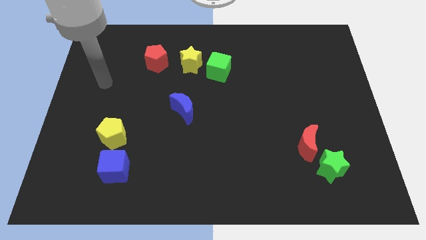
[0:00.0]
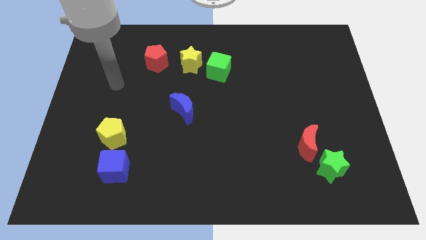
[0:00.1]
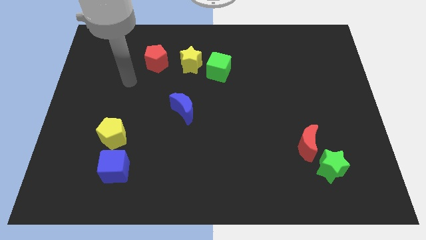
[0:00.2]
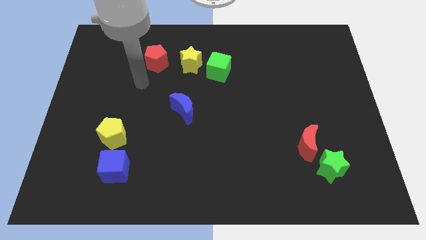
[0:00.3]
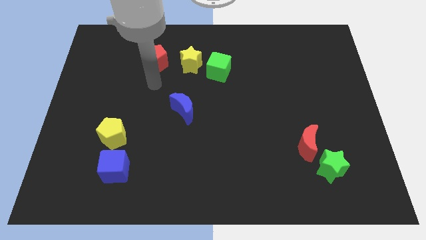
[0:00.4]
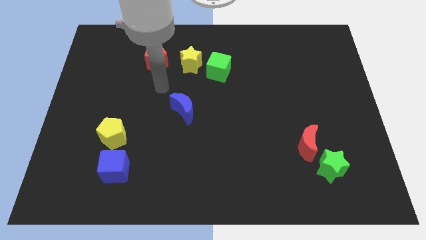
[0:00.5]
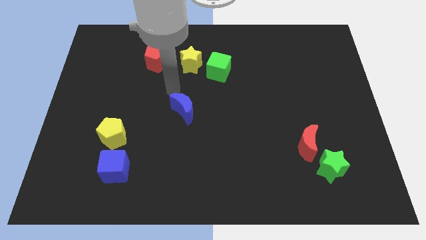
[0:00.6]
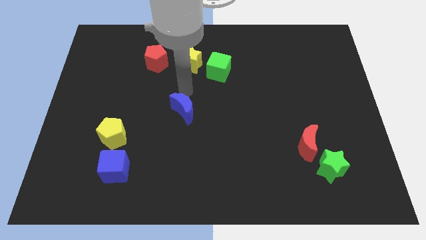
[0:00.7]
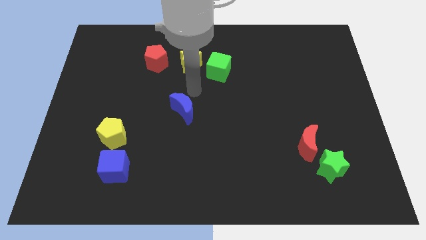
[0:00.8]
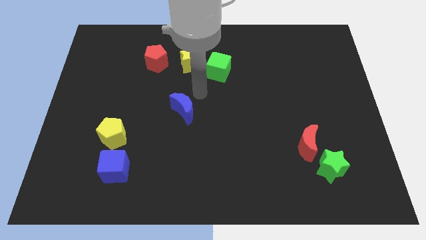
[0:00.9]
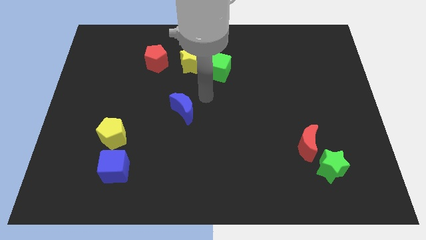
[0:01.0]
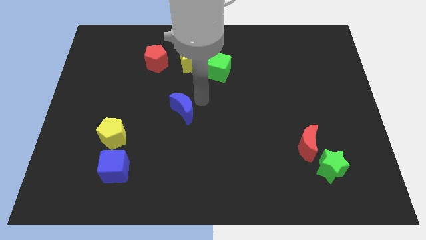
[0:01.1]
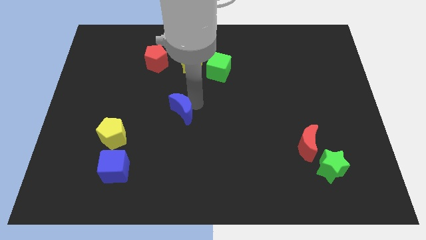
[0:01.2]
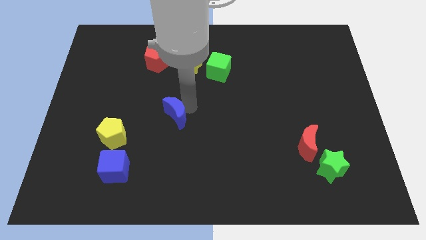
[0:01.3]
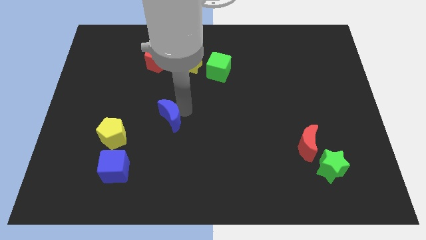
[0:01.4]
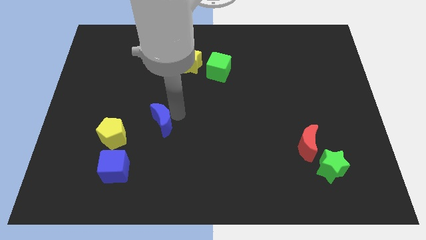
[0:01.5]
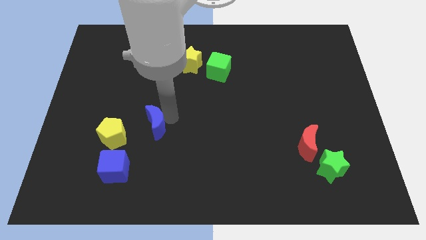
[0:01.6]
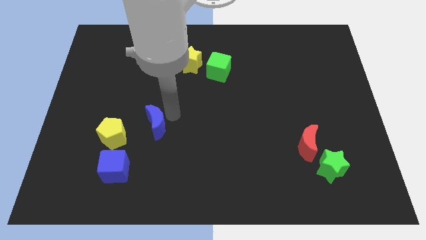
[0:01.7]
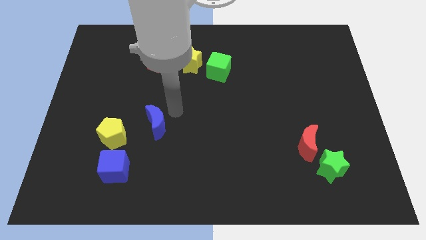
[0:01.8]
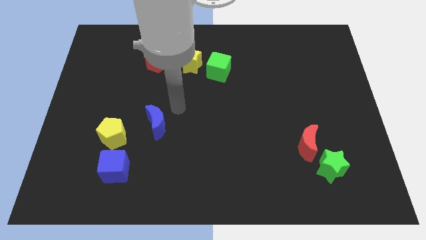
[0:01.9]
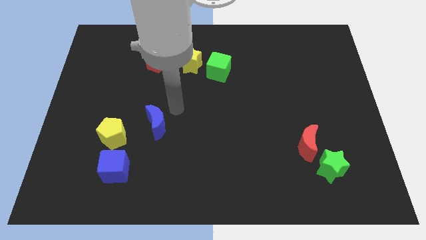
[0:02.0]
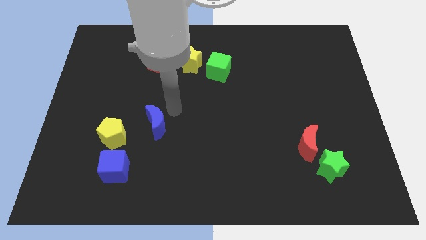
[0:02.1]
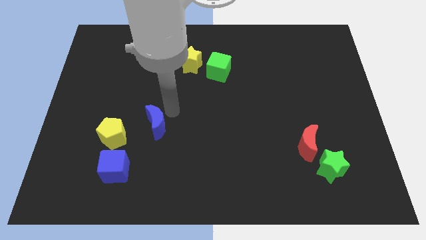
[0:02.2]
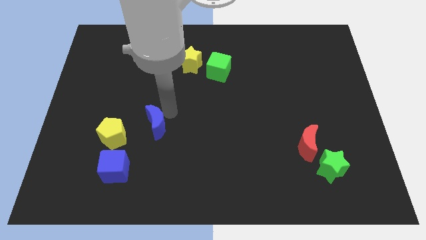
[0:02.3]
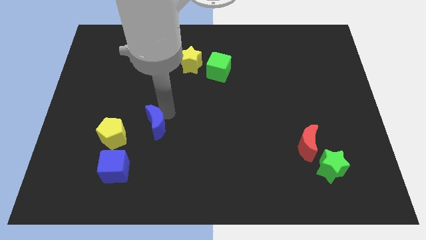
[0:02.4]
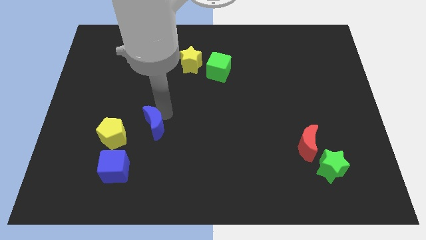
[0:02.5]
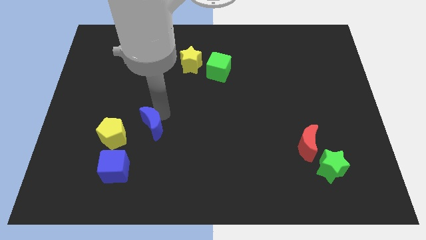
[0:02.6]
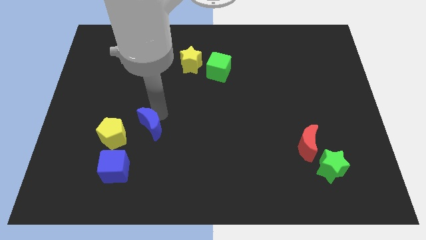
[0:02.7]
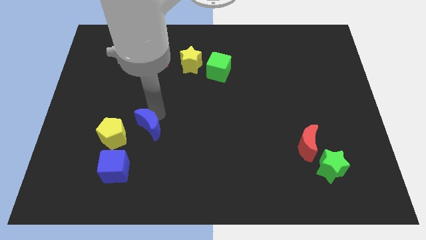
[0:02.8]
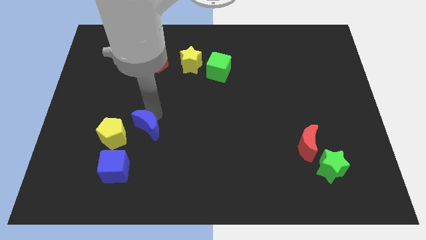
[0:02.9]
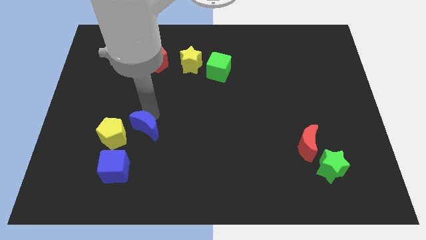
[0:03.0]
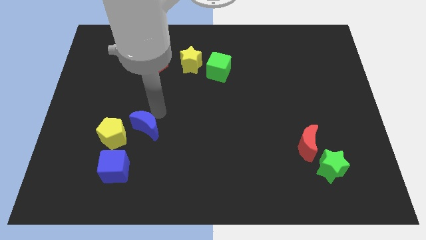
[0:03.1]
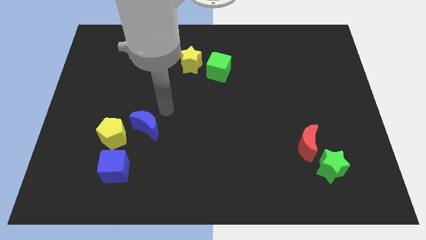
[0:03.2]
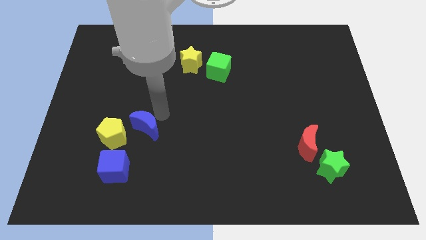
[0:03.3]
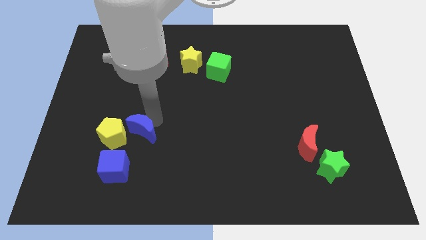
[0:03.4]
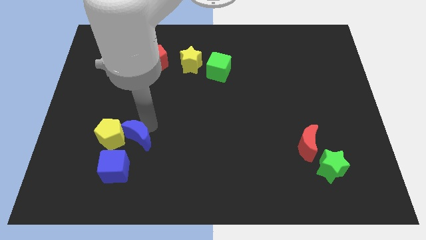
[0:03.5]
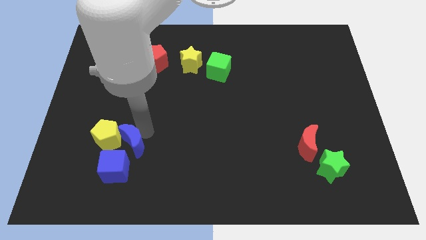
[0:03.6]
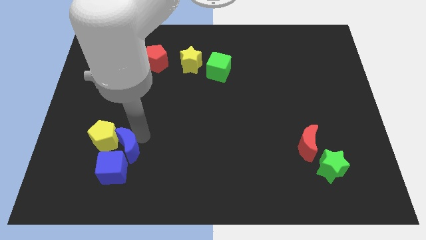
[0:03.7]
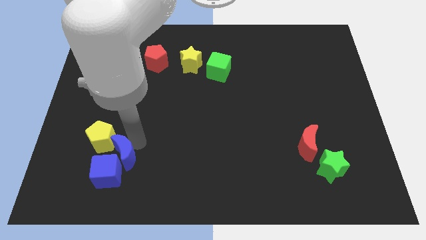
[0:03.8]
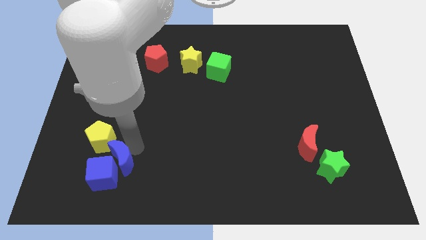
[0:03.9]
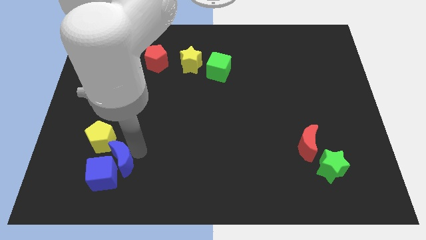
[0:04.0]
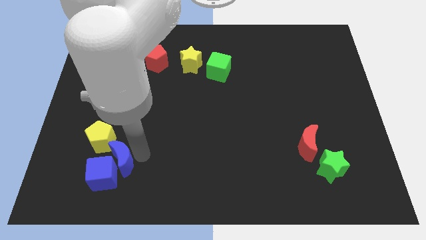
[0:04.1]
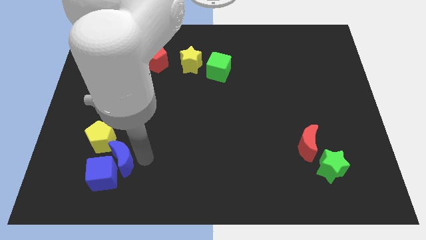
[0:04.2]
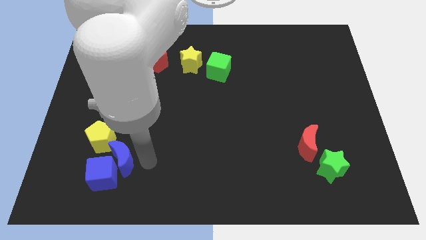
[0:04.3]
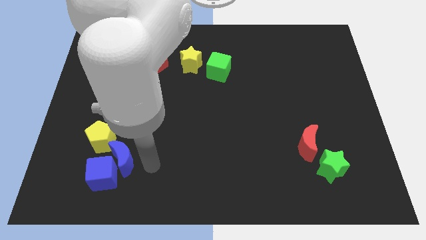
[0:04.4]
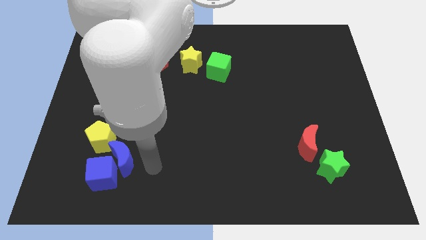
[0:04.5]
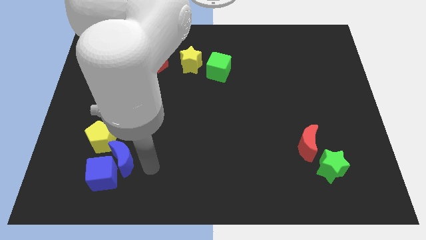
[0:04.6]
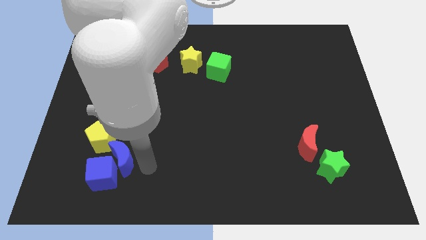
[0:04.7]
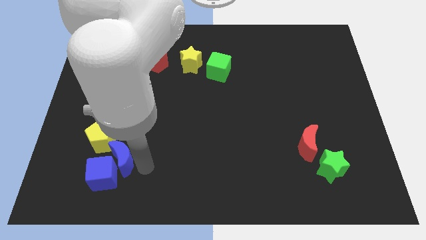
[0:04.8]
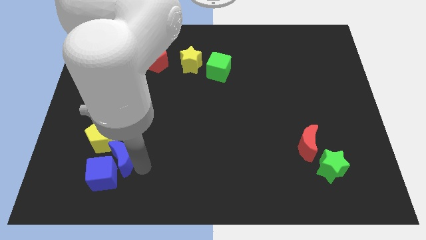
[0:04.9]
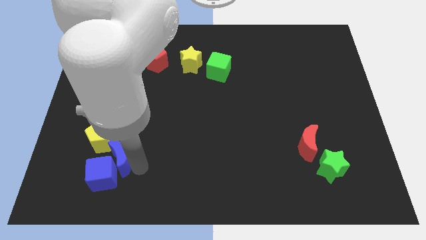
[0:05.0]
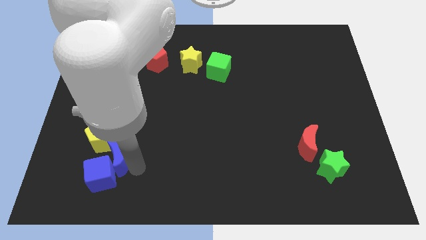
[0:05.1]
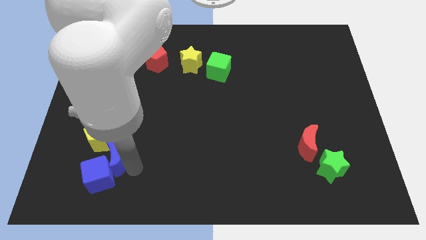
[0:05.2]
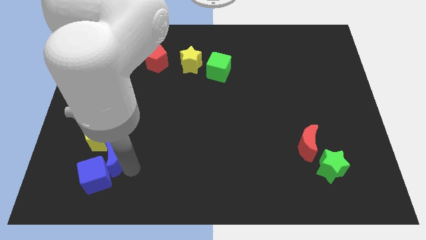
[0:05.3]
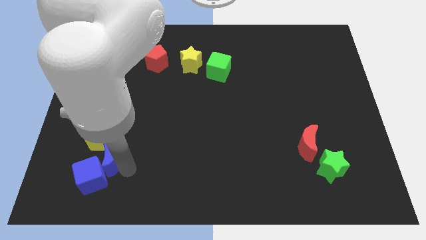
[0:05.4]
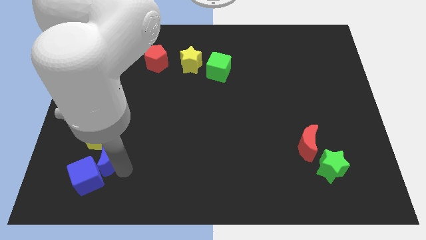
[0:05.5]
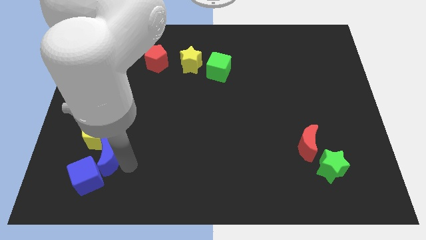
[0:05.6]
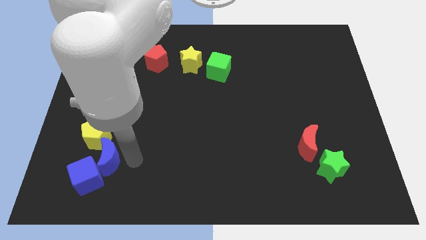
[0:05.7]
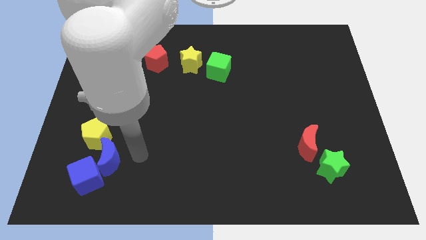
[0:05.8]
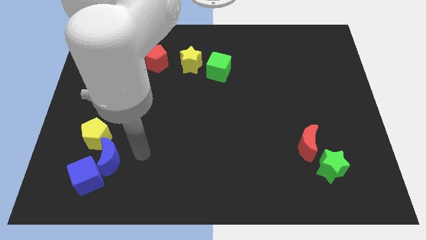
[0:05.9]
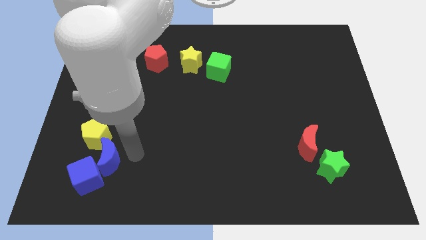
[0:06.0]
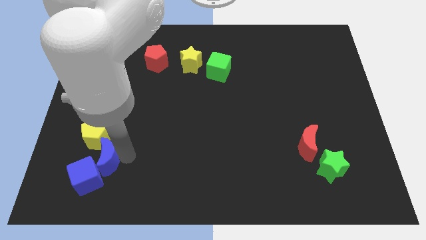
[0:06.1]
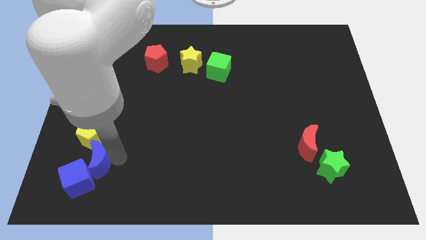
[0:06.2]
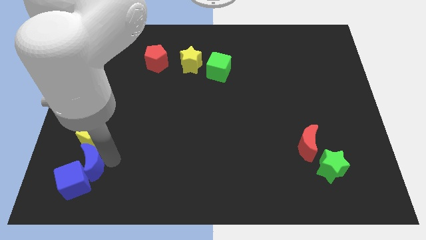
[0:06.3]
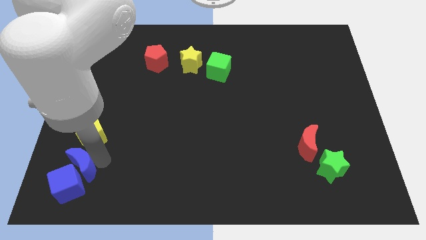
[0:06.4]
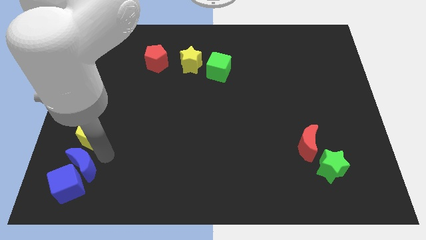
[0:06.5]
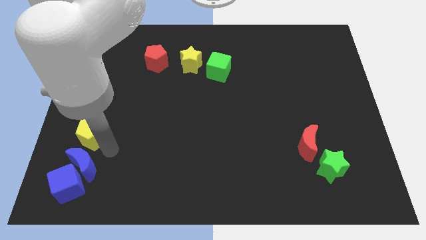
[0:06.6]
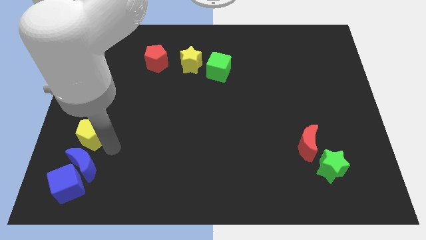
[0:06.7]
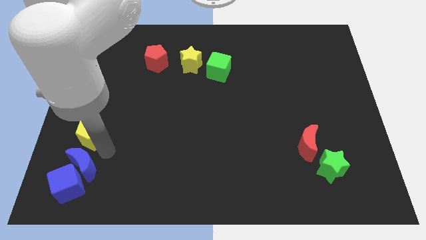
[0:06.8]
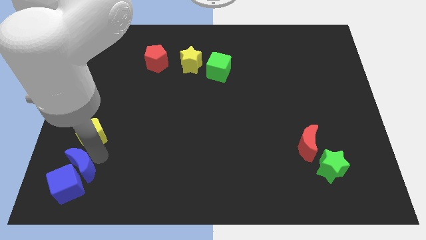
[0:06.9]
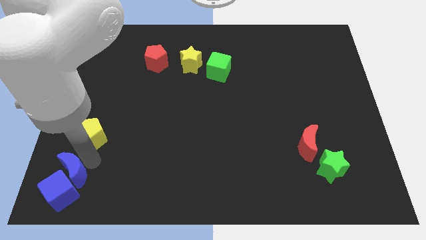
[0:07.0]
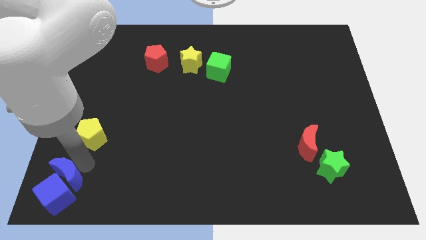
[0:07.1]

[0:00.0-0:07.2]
put the blue moon to the bottom left of the board
